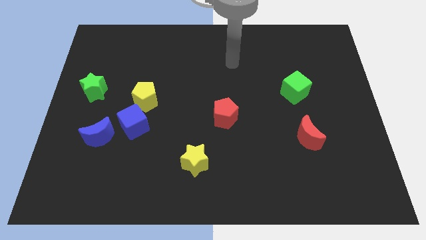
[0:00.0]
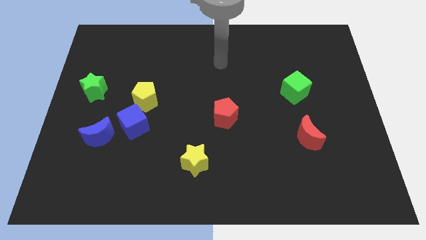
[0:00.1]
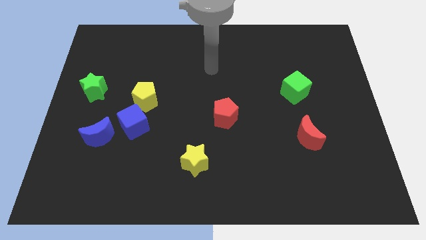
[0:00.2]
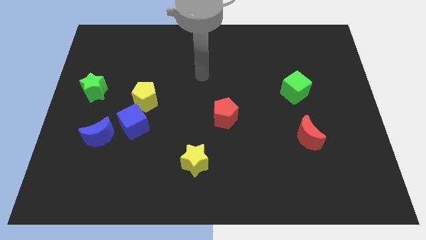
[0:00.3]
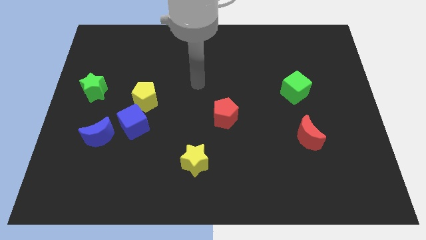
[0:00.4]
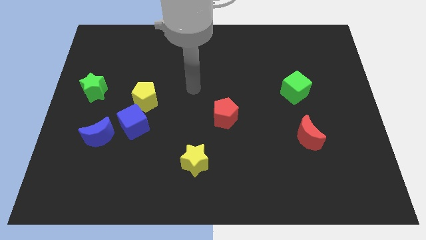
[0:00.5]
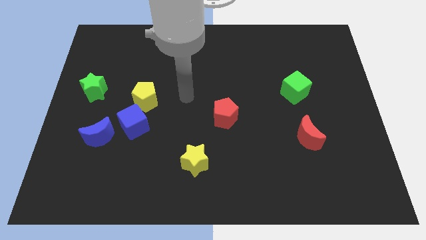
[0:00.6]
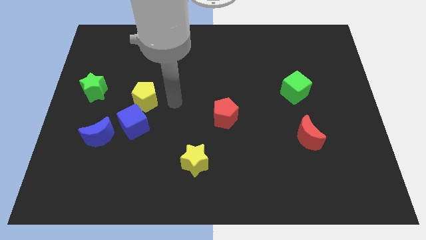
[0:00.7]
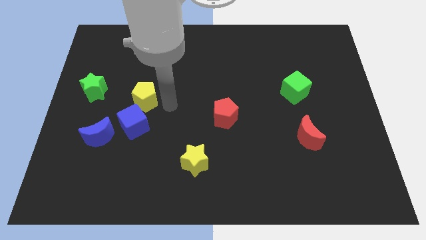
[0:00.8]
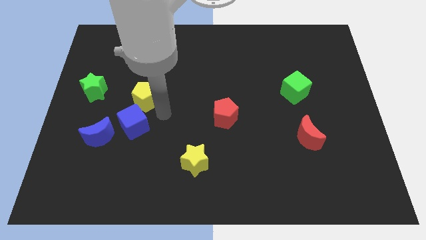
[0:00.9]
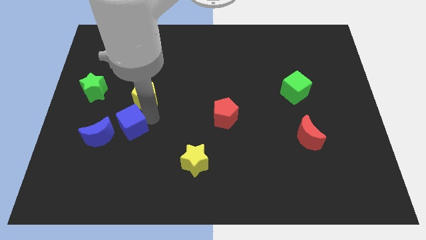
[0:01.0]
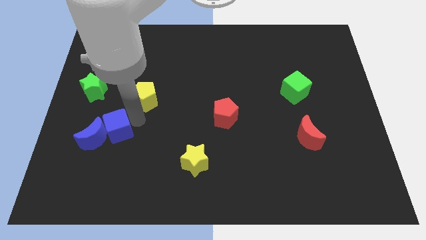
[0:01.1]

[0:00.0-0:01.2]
pull the yellow pentagon apart from the blue cube

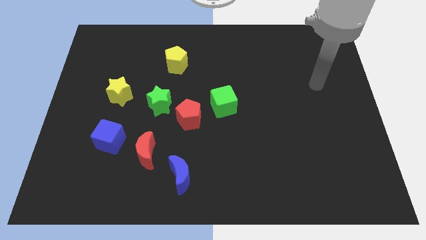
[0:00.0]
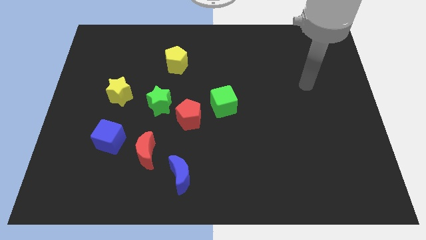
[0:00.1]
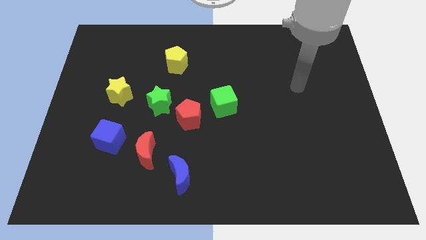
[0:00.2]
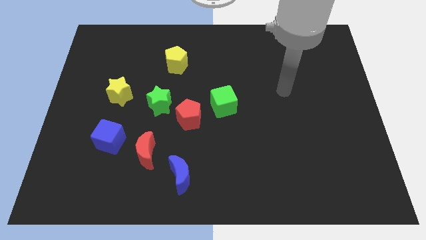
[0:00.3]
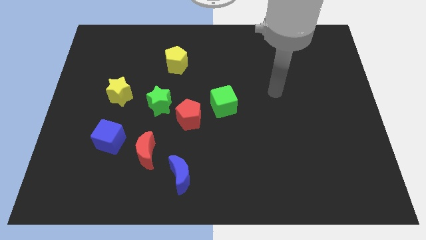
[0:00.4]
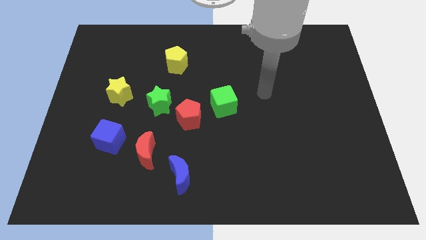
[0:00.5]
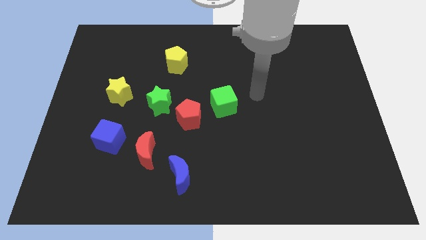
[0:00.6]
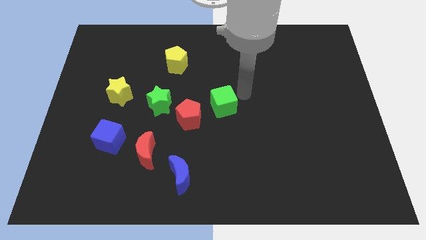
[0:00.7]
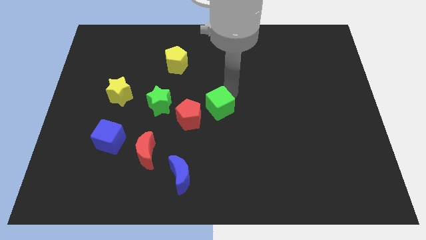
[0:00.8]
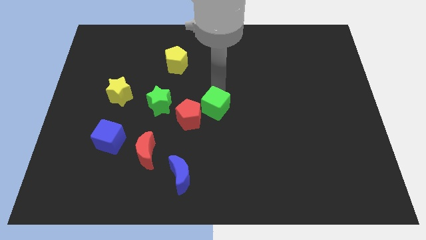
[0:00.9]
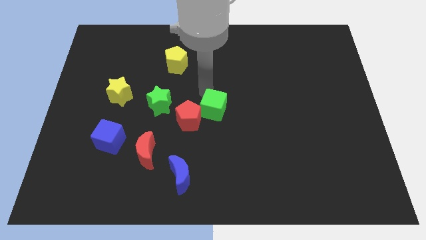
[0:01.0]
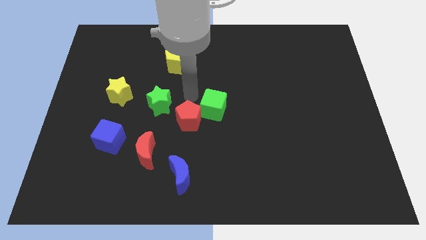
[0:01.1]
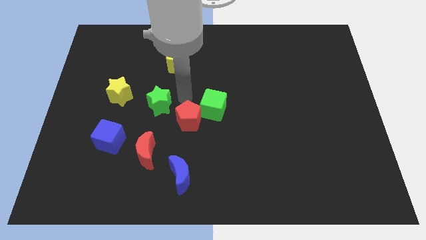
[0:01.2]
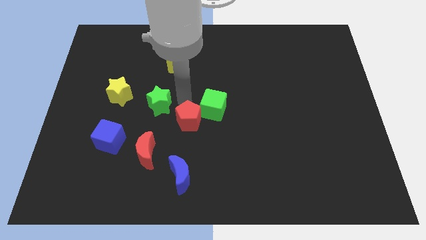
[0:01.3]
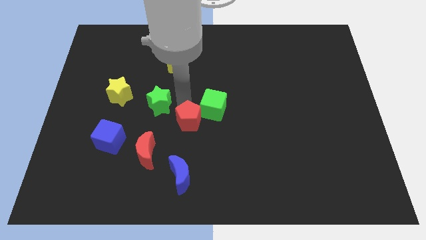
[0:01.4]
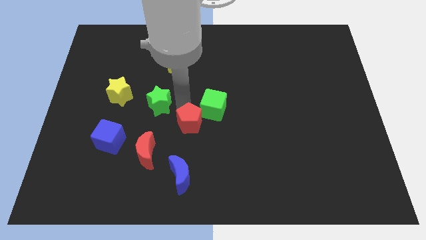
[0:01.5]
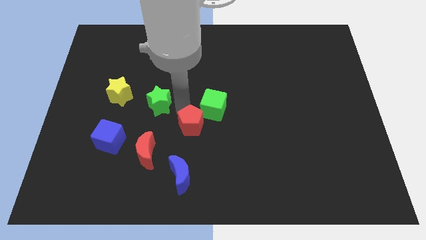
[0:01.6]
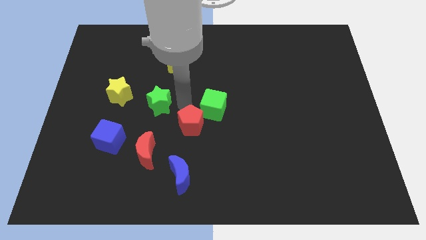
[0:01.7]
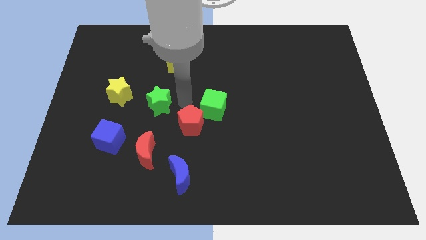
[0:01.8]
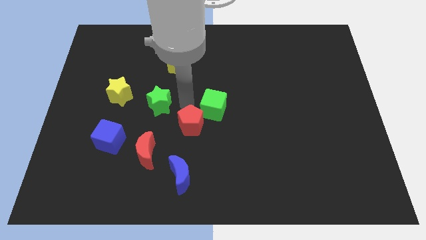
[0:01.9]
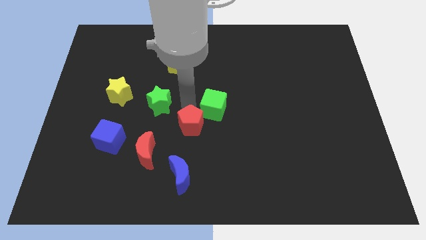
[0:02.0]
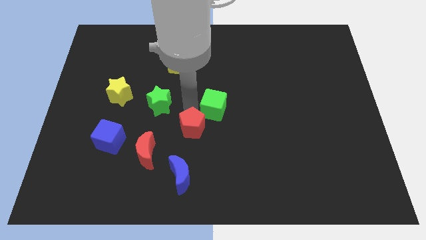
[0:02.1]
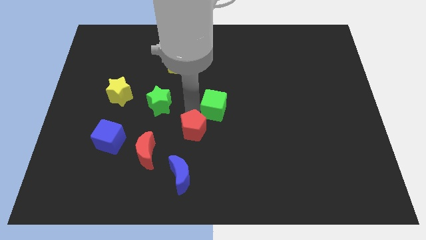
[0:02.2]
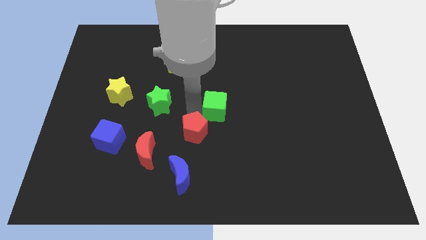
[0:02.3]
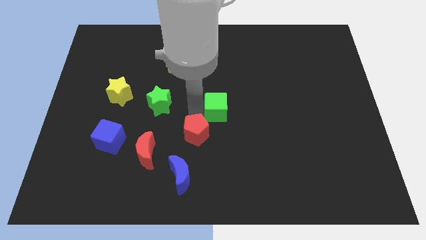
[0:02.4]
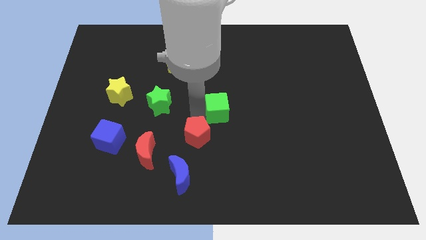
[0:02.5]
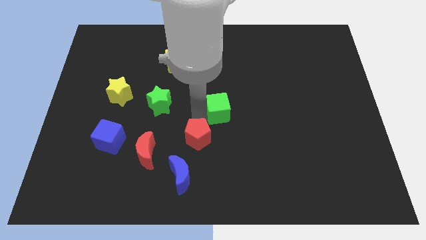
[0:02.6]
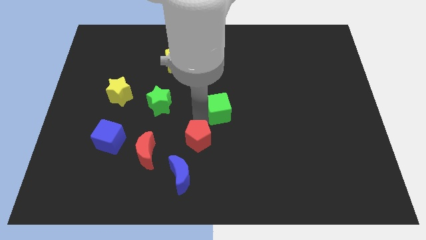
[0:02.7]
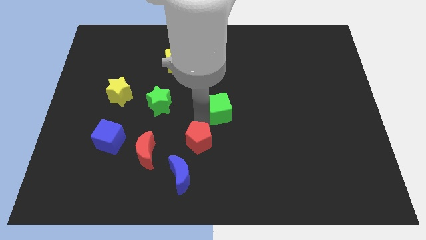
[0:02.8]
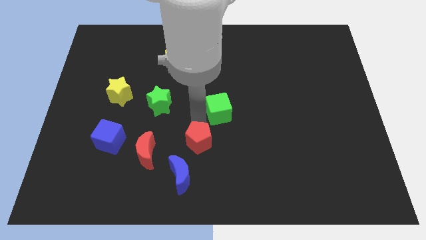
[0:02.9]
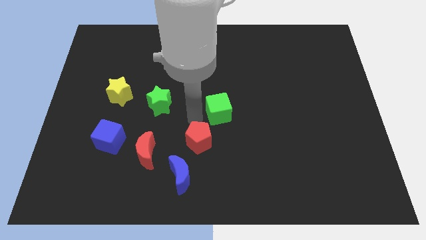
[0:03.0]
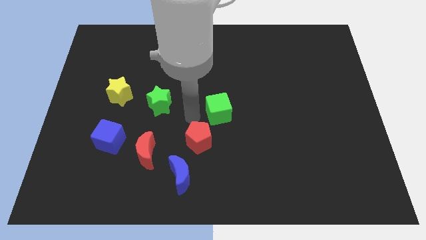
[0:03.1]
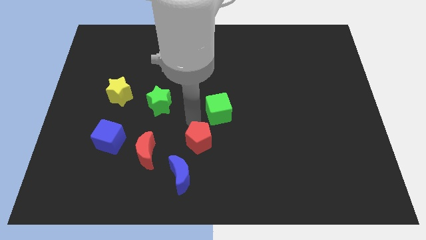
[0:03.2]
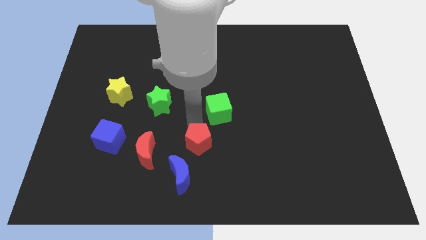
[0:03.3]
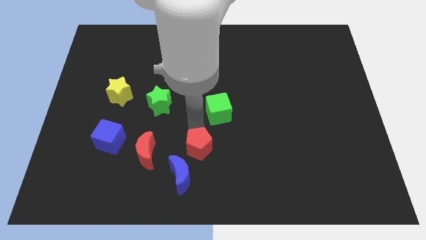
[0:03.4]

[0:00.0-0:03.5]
separate the red pentagon from the green star and green cube

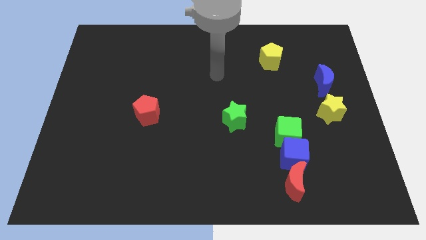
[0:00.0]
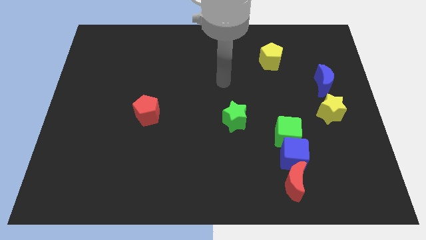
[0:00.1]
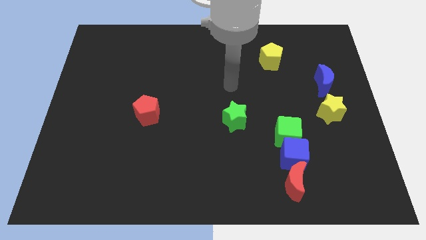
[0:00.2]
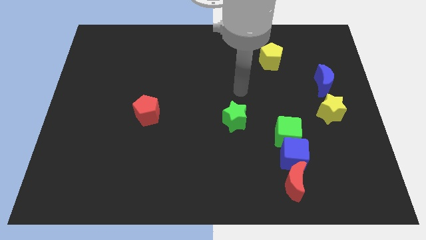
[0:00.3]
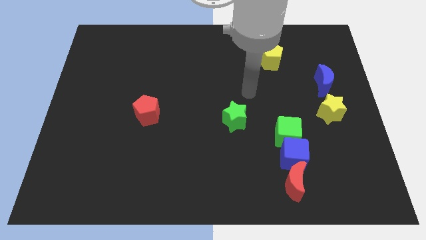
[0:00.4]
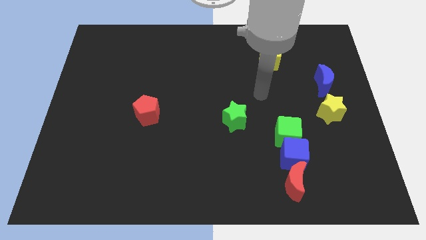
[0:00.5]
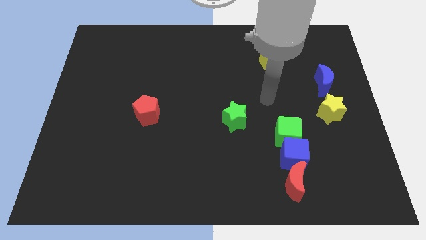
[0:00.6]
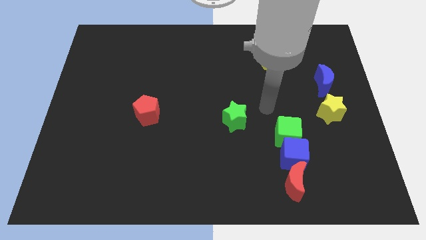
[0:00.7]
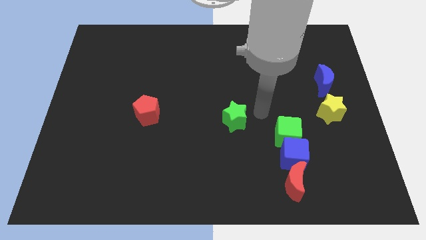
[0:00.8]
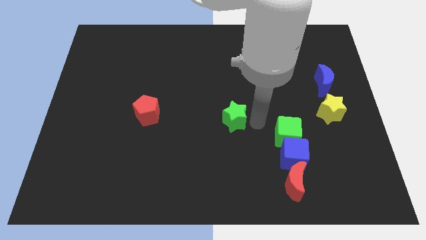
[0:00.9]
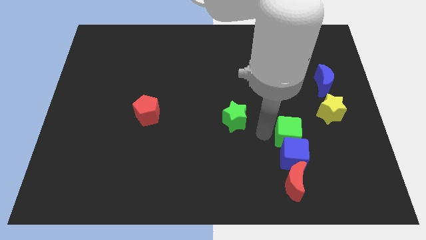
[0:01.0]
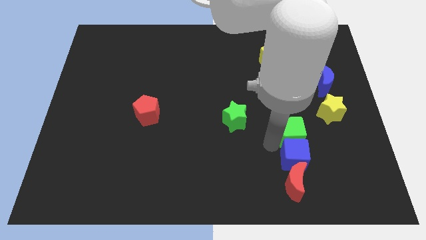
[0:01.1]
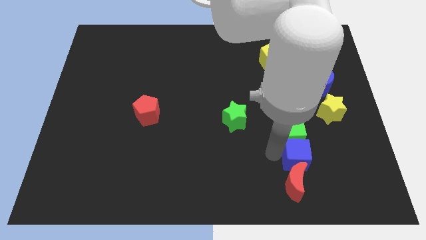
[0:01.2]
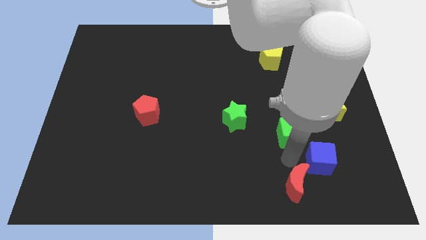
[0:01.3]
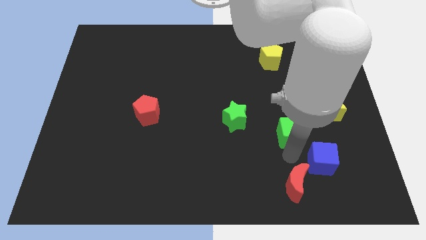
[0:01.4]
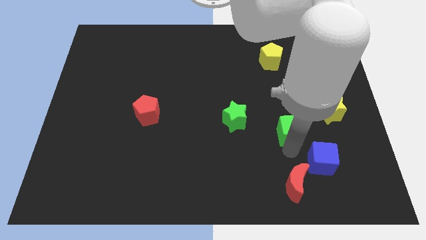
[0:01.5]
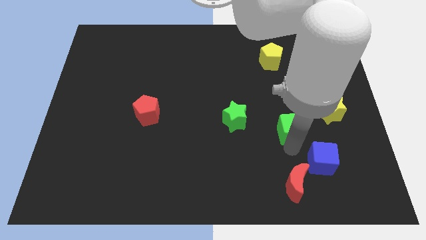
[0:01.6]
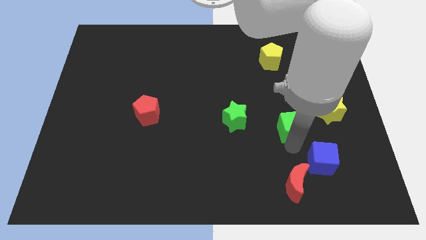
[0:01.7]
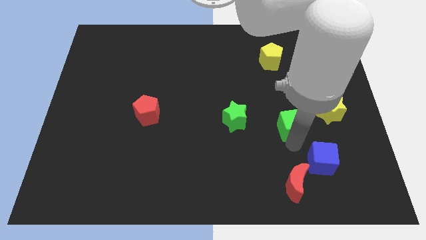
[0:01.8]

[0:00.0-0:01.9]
pull the green cube apart from the blue cube

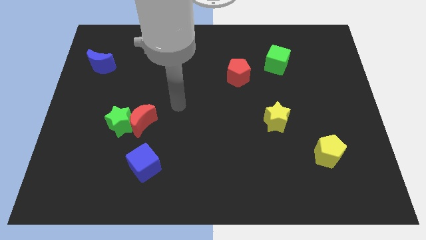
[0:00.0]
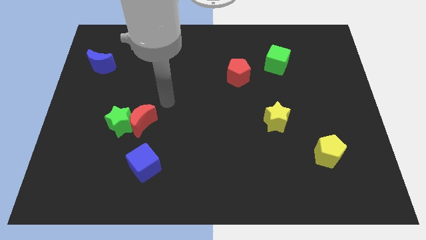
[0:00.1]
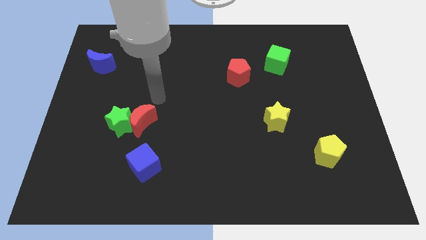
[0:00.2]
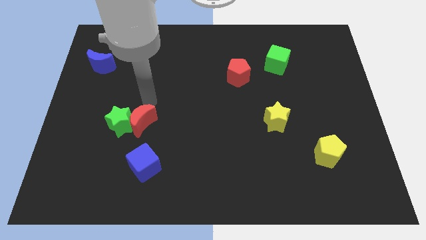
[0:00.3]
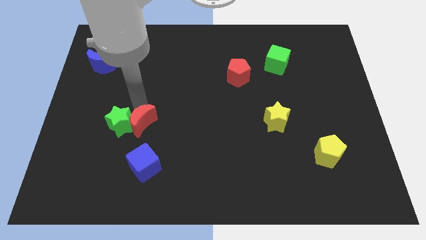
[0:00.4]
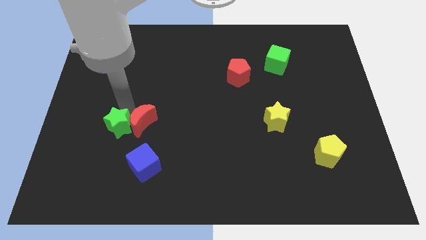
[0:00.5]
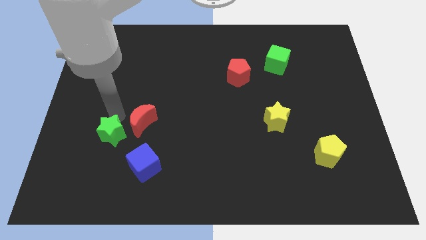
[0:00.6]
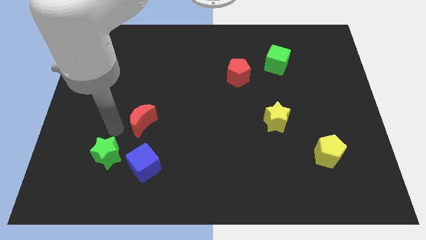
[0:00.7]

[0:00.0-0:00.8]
separate the red moon from the green star

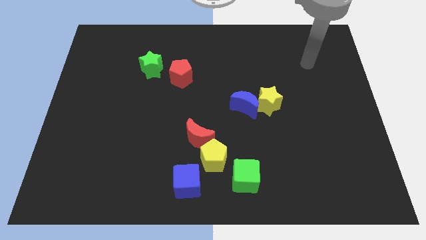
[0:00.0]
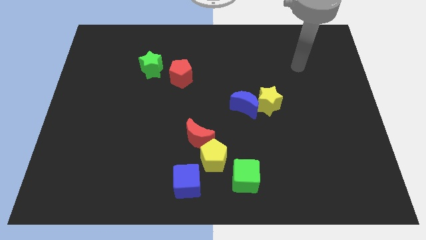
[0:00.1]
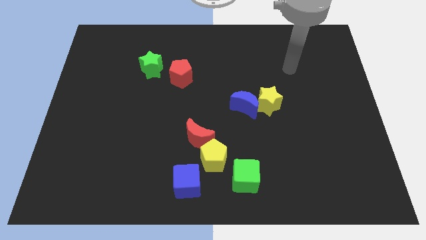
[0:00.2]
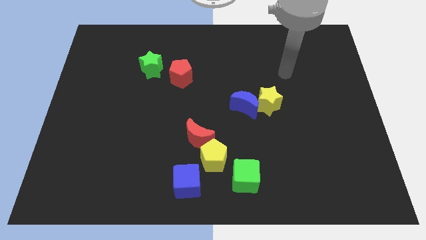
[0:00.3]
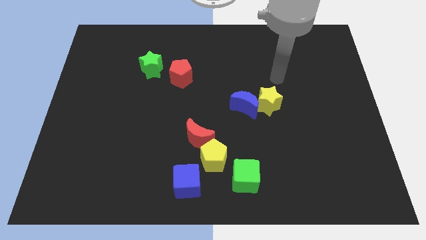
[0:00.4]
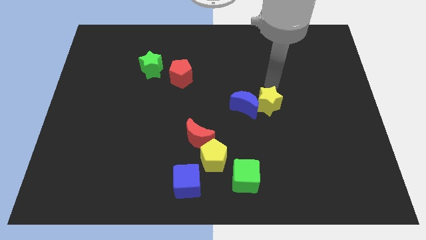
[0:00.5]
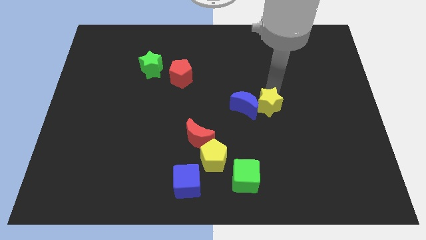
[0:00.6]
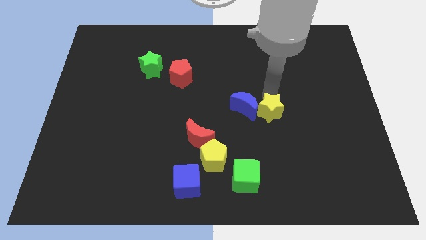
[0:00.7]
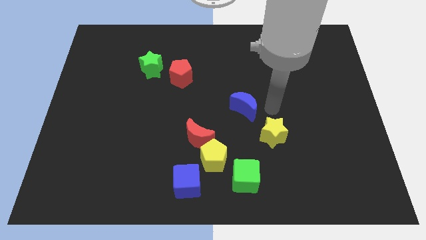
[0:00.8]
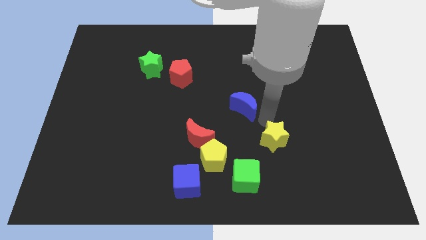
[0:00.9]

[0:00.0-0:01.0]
move the blue moon away from the yellow star

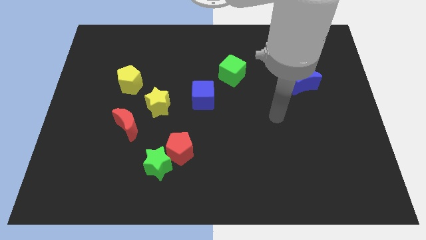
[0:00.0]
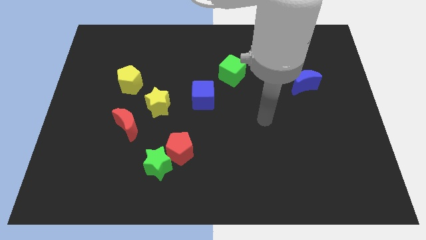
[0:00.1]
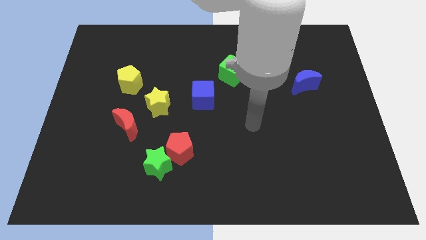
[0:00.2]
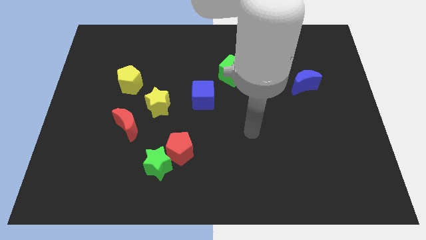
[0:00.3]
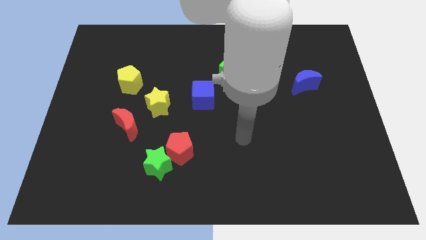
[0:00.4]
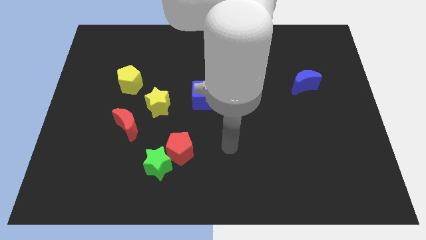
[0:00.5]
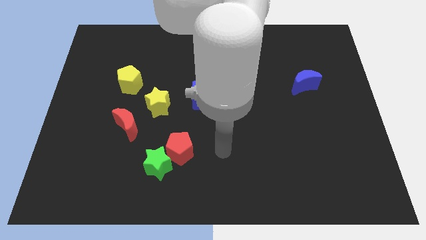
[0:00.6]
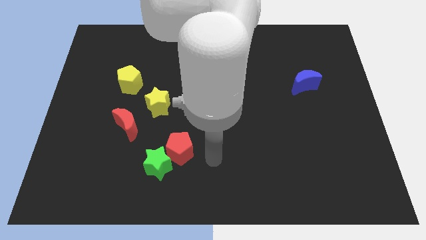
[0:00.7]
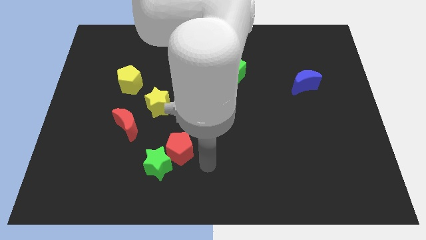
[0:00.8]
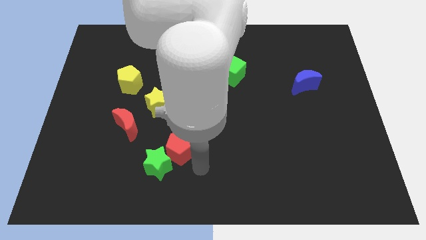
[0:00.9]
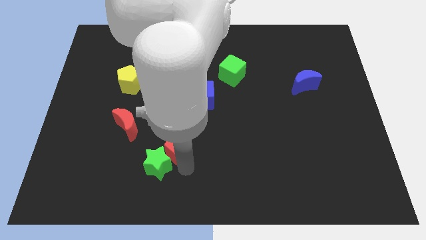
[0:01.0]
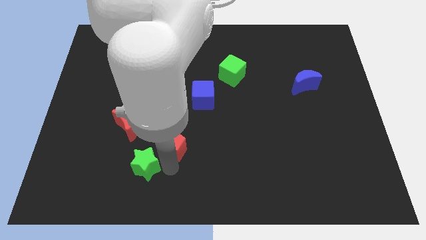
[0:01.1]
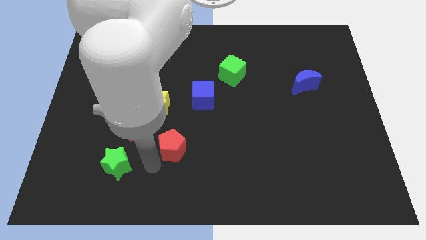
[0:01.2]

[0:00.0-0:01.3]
separate the red pentagon from the green star
